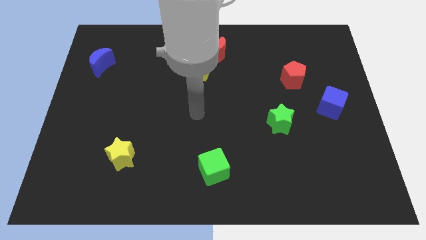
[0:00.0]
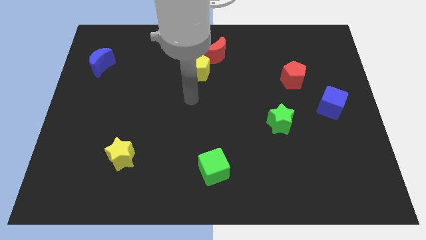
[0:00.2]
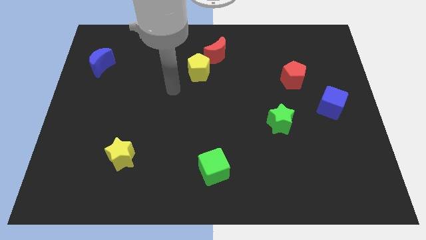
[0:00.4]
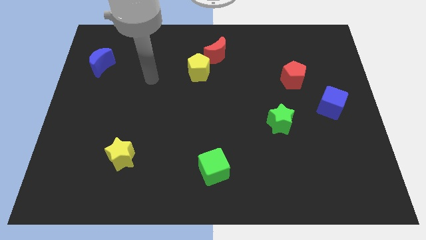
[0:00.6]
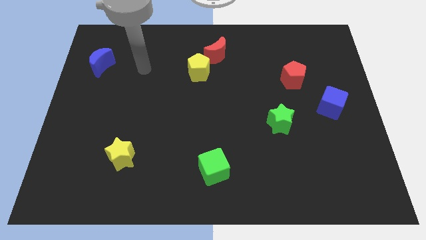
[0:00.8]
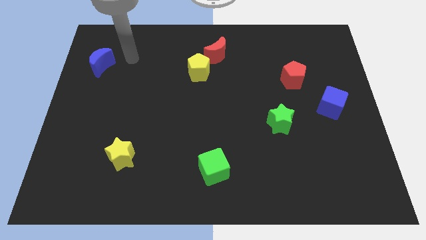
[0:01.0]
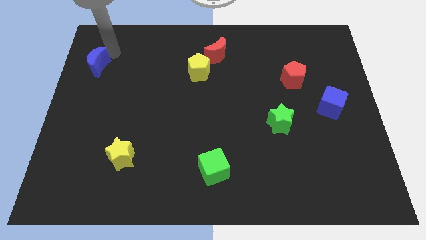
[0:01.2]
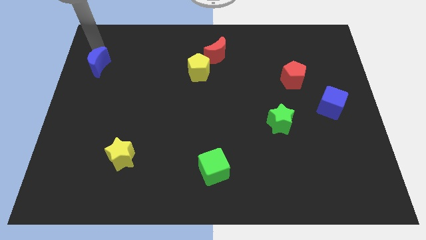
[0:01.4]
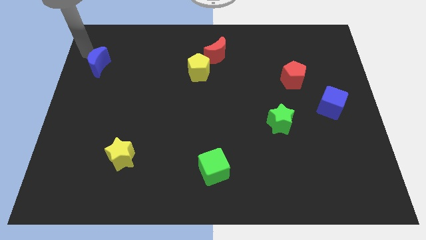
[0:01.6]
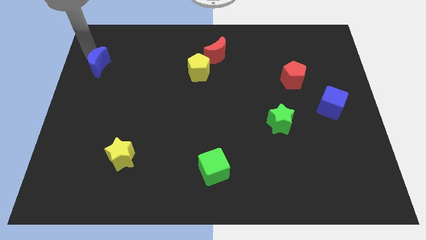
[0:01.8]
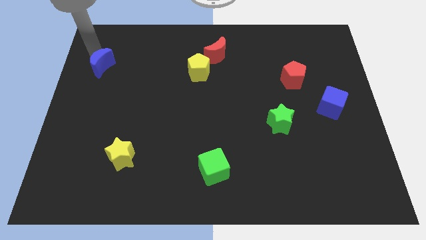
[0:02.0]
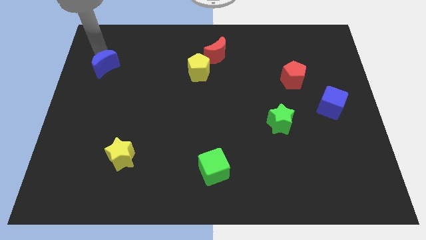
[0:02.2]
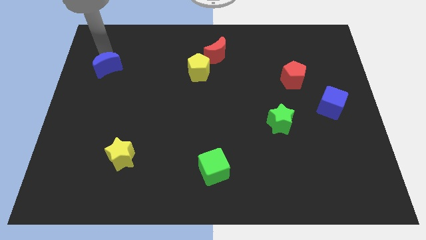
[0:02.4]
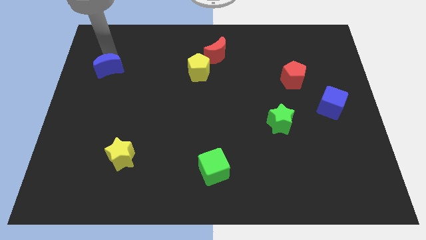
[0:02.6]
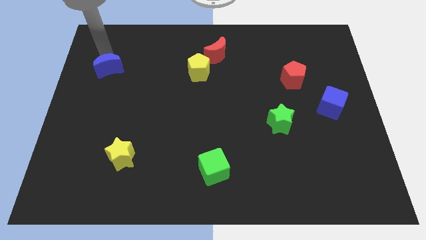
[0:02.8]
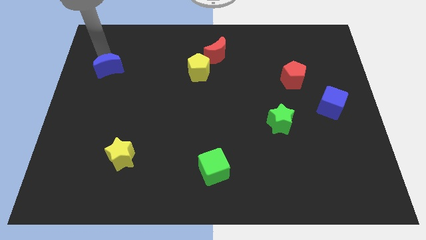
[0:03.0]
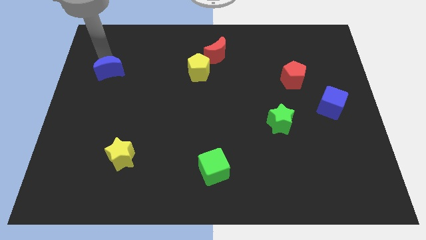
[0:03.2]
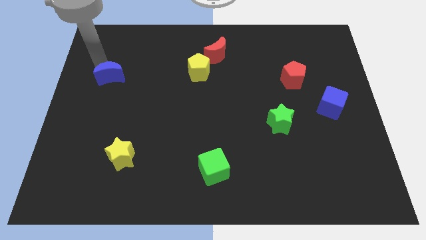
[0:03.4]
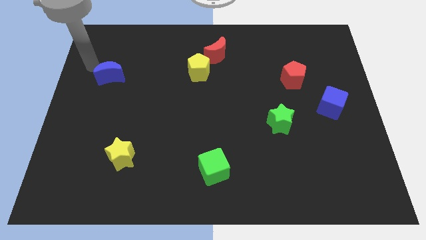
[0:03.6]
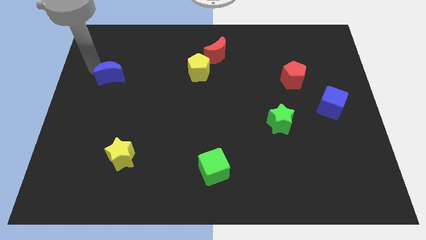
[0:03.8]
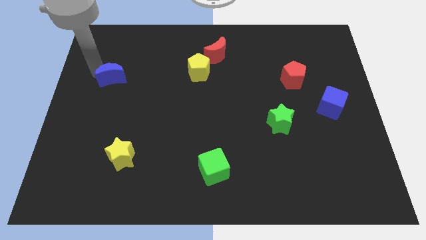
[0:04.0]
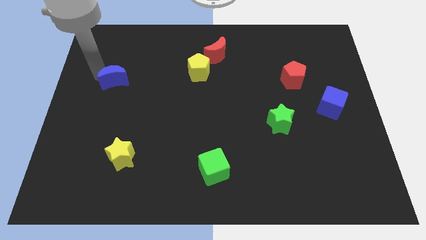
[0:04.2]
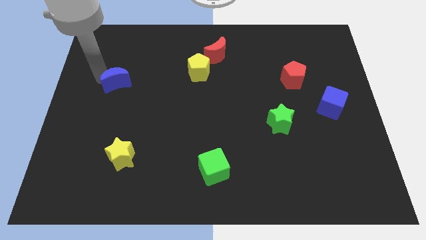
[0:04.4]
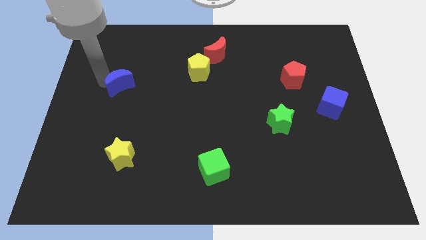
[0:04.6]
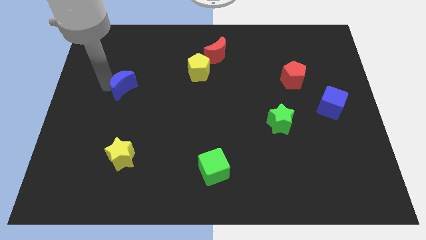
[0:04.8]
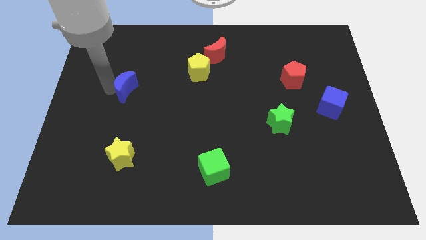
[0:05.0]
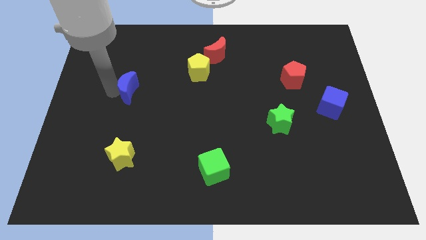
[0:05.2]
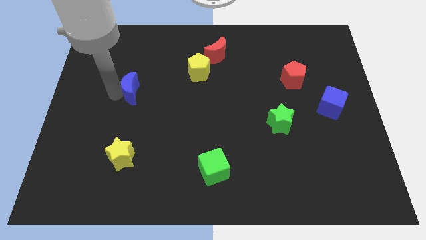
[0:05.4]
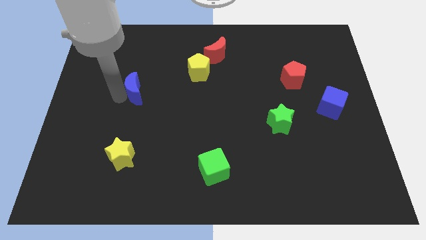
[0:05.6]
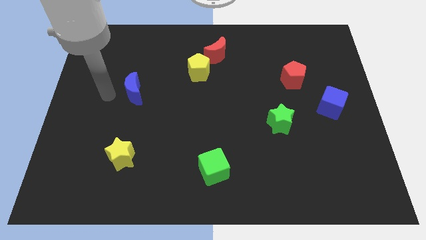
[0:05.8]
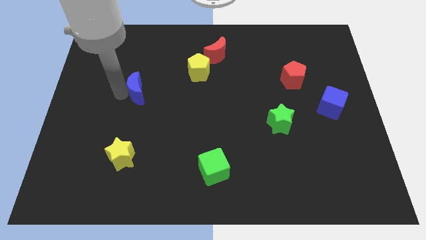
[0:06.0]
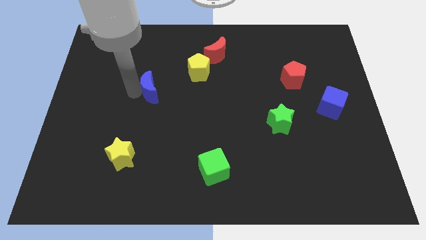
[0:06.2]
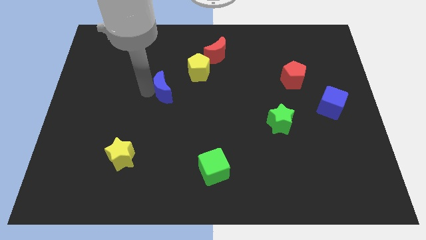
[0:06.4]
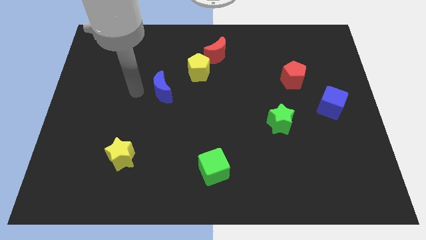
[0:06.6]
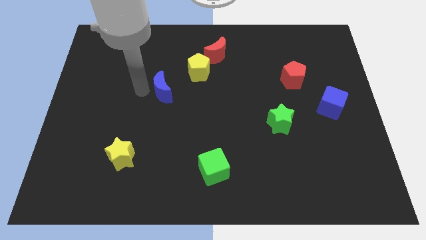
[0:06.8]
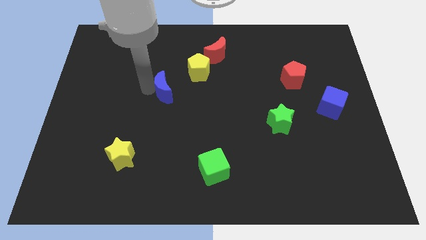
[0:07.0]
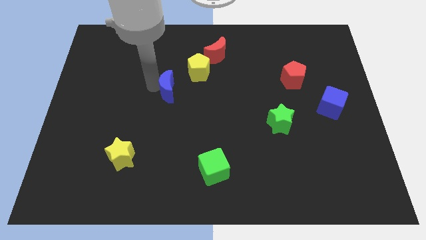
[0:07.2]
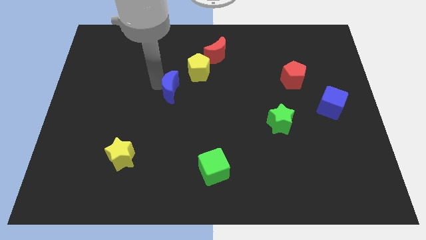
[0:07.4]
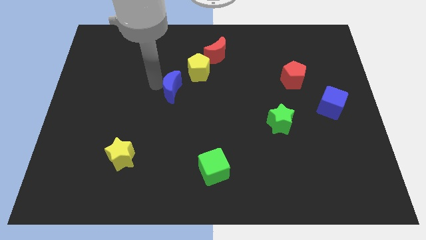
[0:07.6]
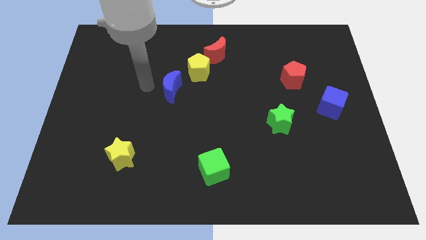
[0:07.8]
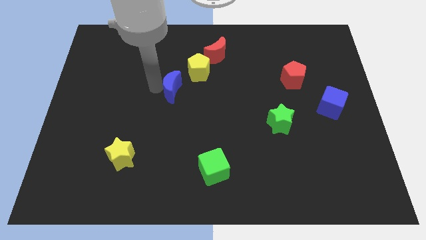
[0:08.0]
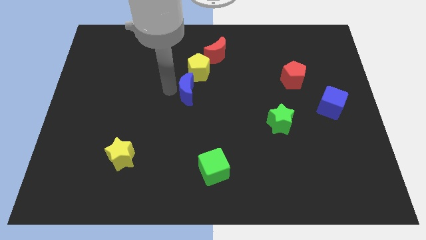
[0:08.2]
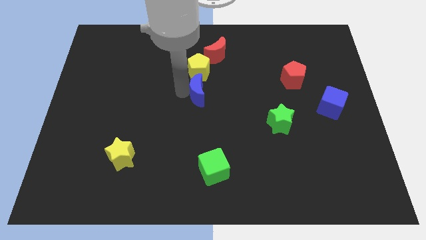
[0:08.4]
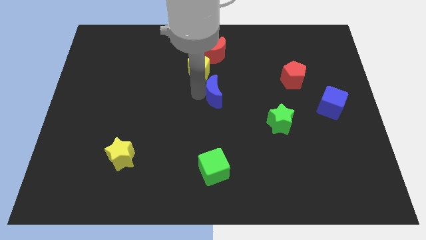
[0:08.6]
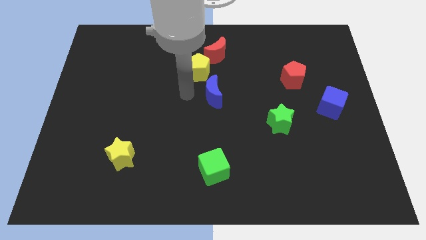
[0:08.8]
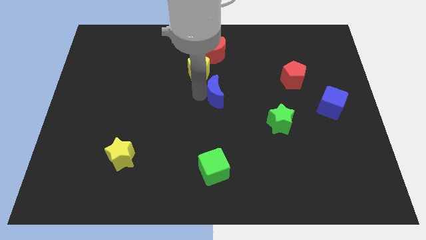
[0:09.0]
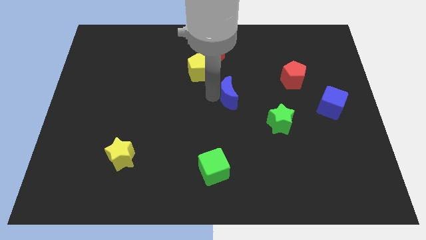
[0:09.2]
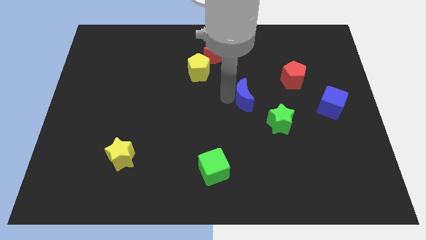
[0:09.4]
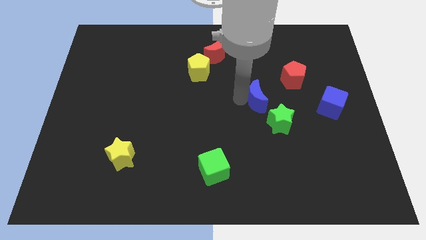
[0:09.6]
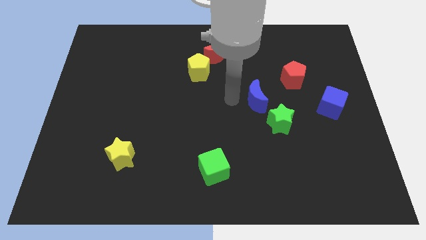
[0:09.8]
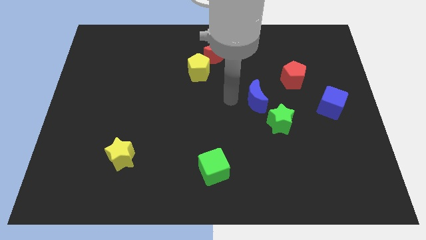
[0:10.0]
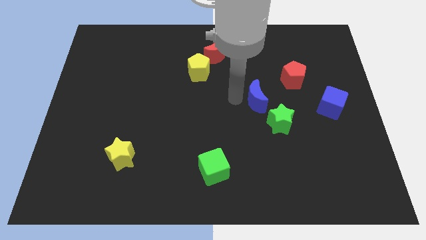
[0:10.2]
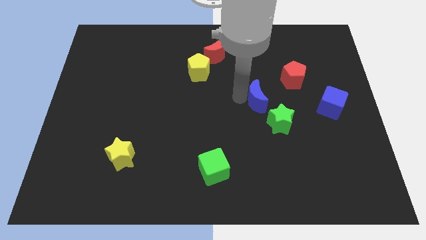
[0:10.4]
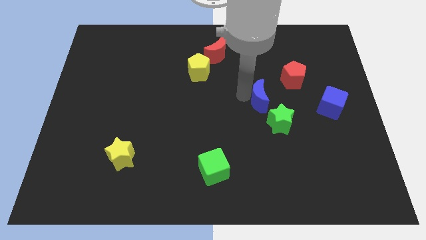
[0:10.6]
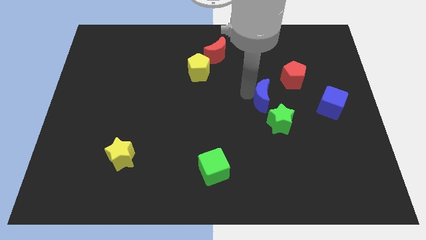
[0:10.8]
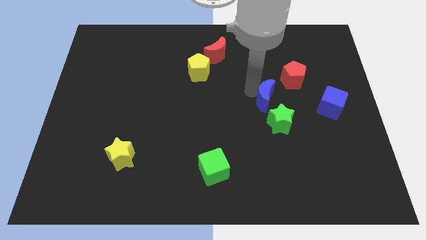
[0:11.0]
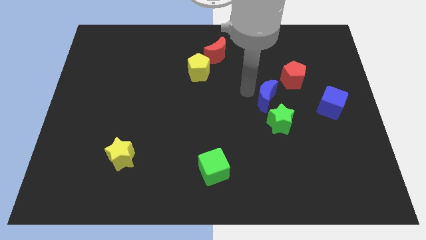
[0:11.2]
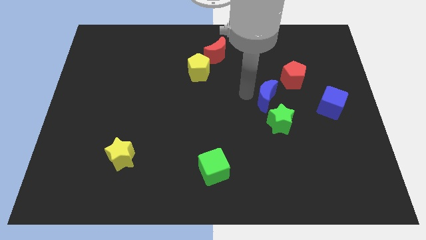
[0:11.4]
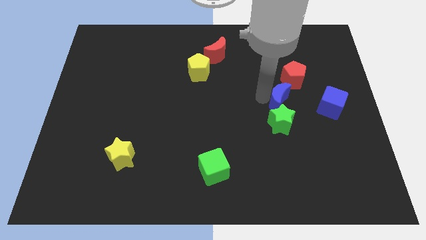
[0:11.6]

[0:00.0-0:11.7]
push the blue moon to the top right of the green star

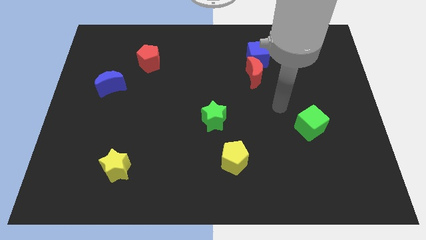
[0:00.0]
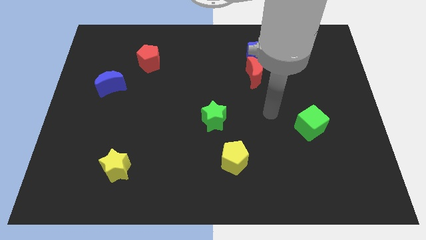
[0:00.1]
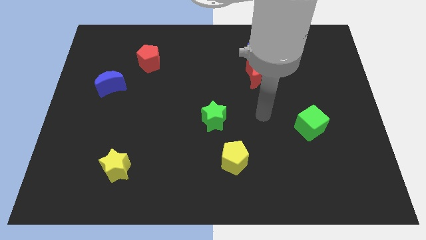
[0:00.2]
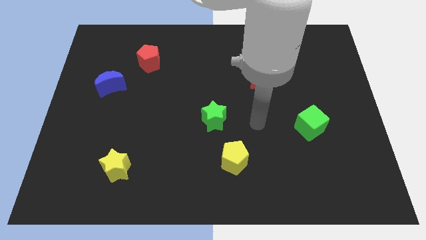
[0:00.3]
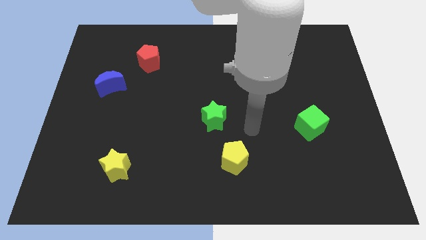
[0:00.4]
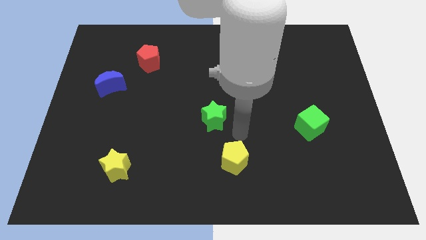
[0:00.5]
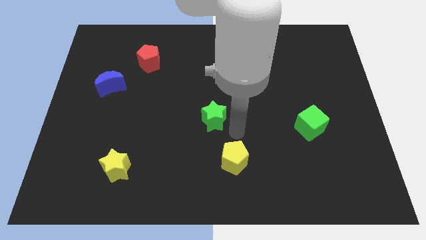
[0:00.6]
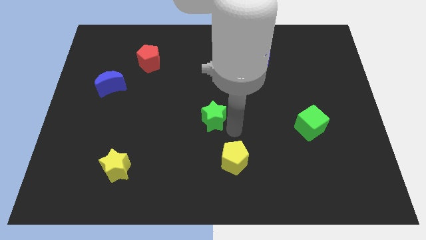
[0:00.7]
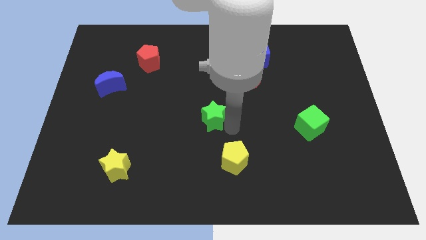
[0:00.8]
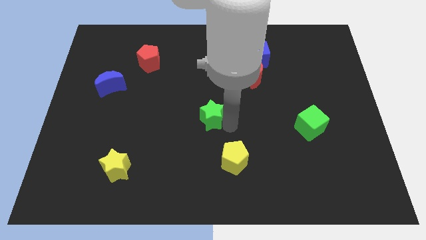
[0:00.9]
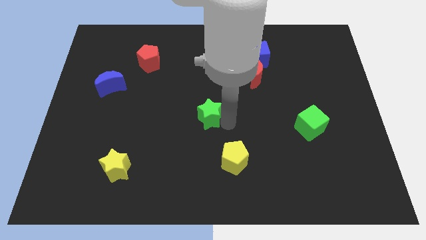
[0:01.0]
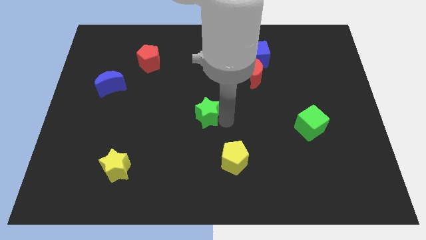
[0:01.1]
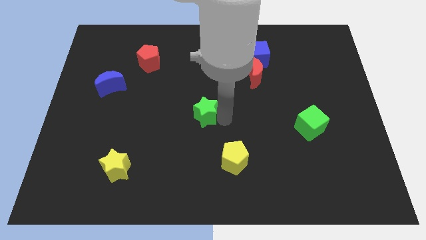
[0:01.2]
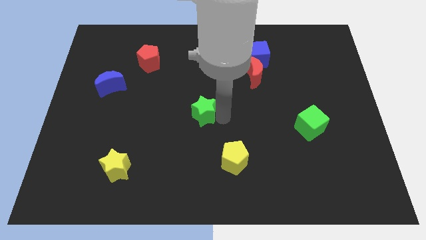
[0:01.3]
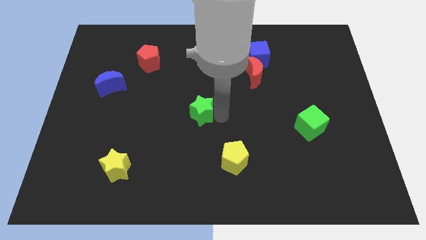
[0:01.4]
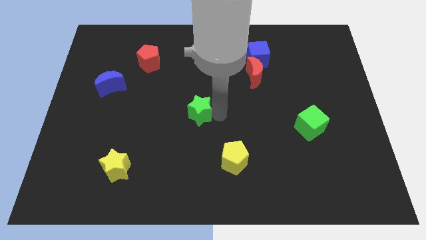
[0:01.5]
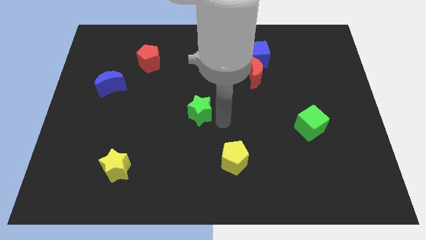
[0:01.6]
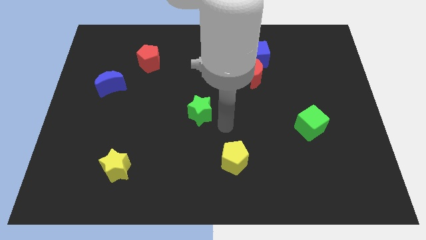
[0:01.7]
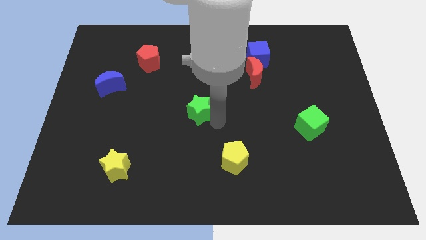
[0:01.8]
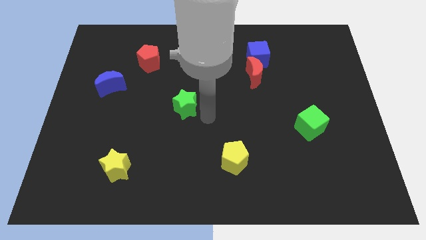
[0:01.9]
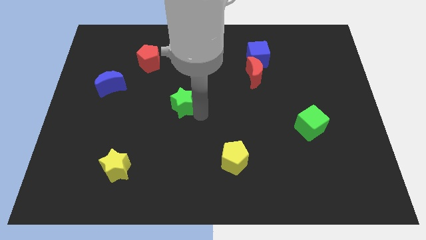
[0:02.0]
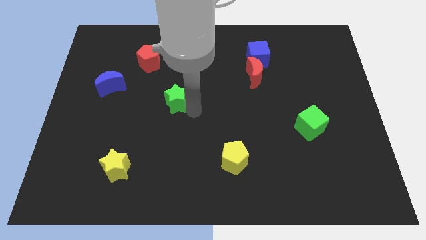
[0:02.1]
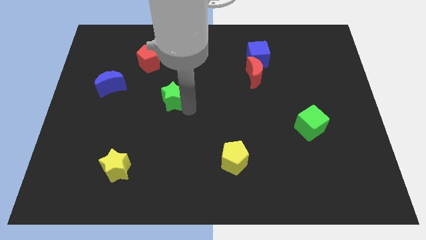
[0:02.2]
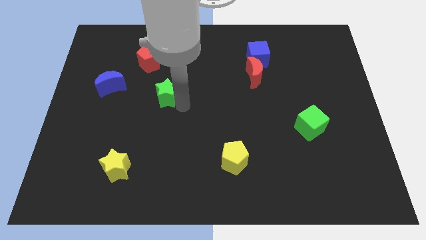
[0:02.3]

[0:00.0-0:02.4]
slide the green star to the right side of the blue moon
